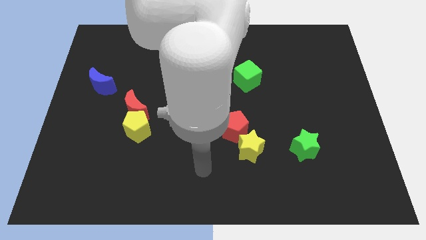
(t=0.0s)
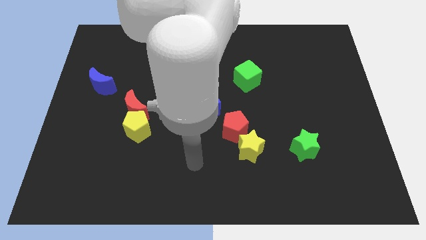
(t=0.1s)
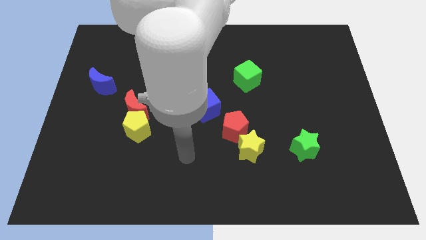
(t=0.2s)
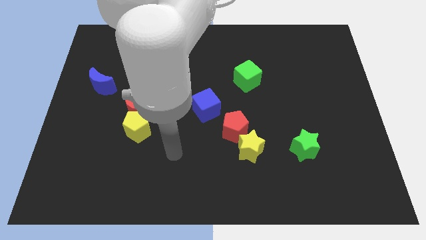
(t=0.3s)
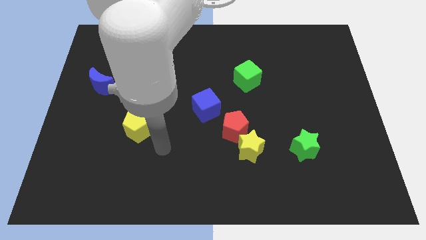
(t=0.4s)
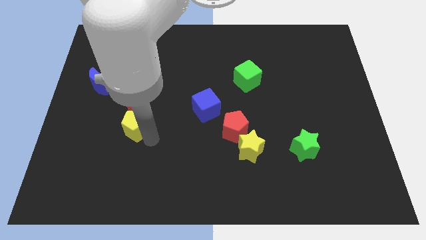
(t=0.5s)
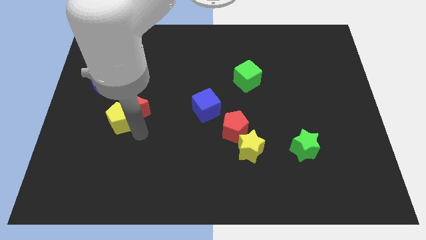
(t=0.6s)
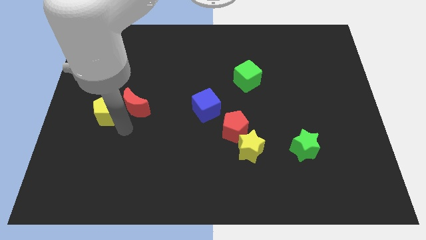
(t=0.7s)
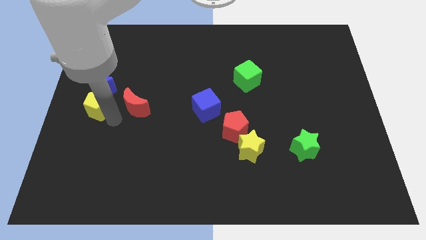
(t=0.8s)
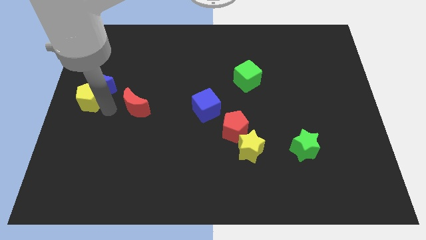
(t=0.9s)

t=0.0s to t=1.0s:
move the red moon away from the yellow pentagon

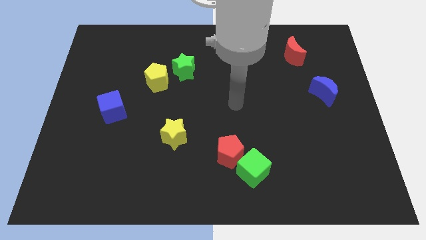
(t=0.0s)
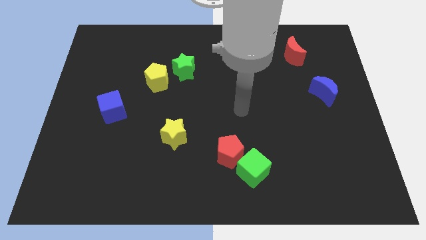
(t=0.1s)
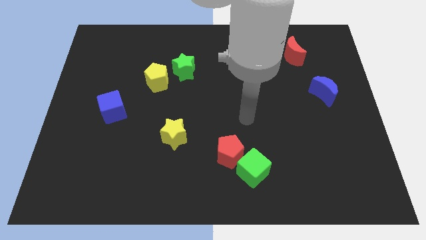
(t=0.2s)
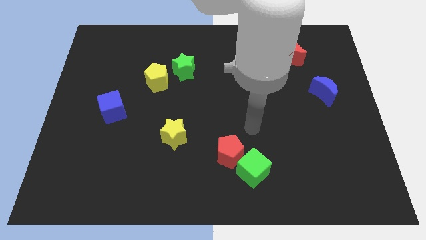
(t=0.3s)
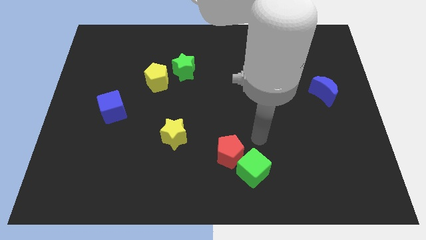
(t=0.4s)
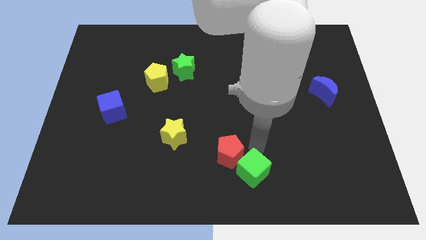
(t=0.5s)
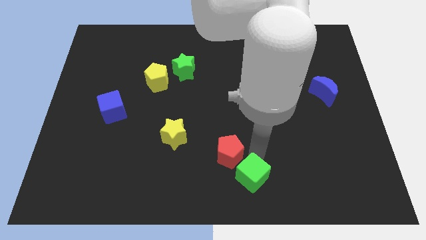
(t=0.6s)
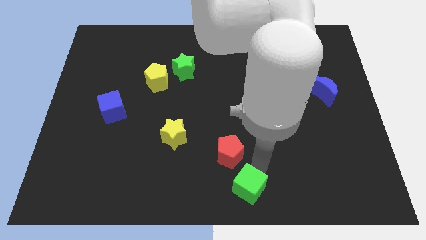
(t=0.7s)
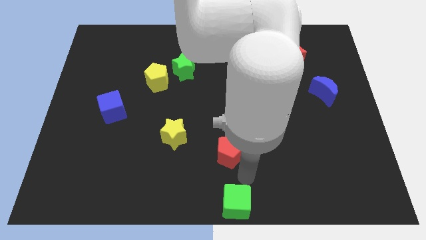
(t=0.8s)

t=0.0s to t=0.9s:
pull the red pentagon apart from the green cube

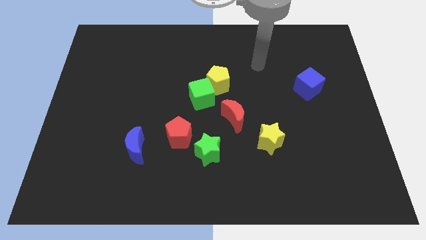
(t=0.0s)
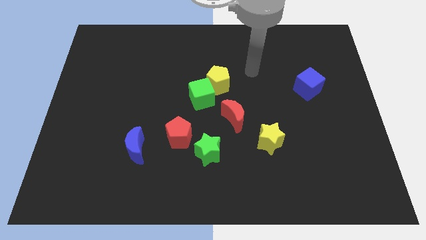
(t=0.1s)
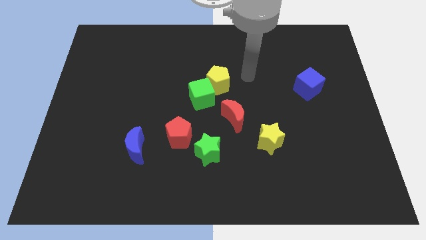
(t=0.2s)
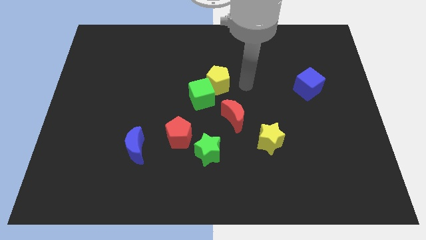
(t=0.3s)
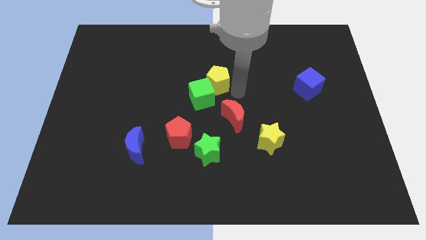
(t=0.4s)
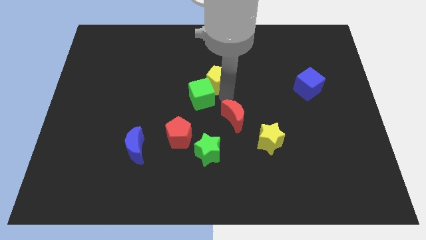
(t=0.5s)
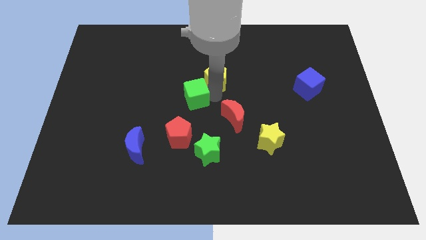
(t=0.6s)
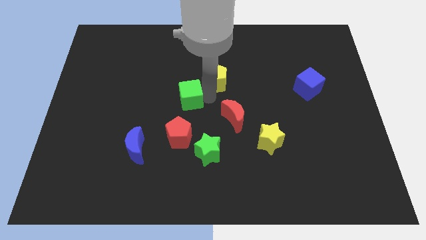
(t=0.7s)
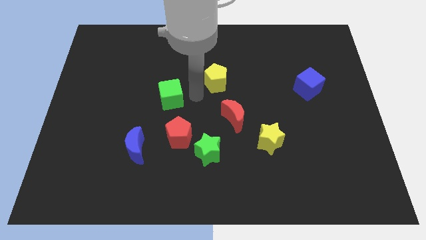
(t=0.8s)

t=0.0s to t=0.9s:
separate the yellow pentagon from the green cube

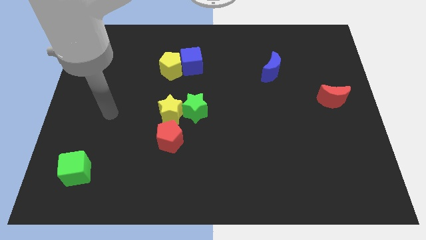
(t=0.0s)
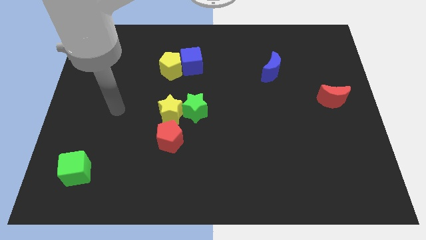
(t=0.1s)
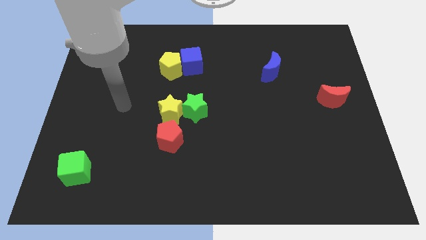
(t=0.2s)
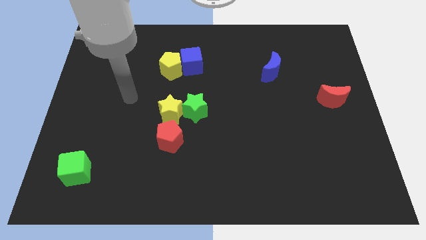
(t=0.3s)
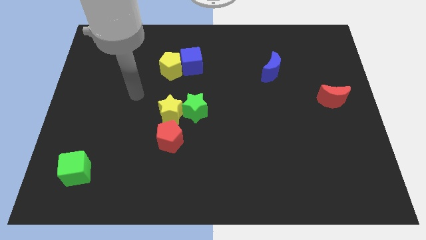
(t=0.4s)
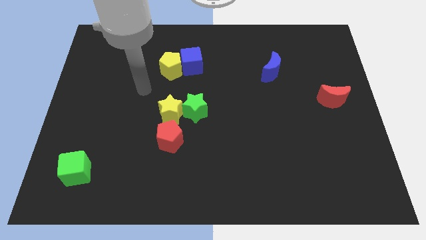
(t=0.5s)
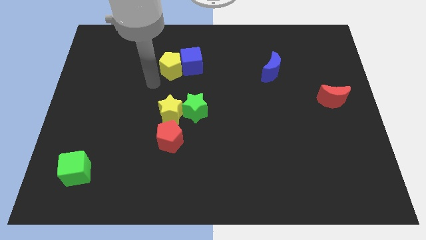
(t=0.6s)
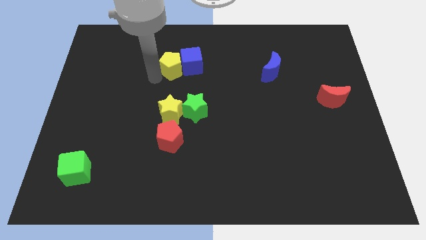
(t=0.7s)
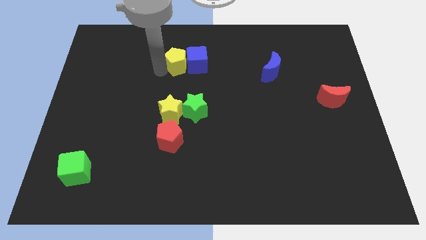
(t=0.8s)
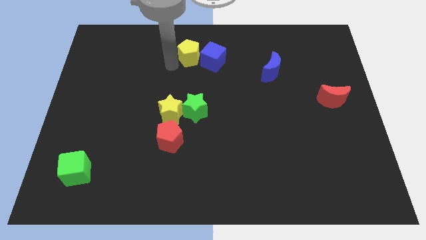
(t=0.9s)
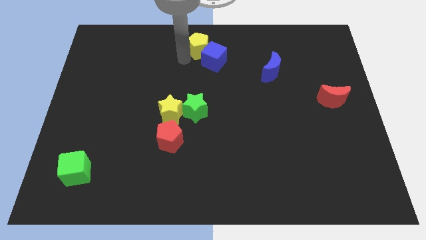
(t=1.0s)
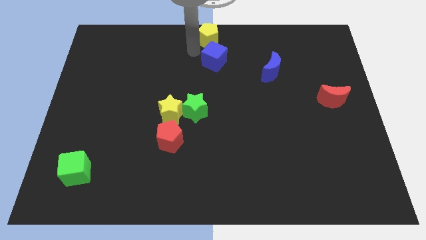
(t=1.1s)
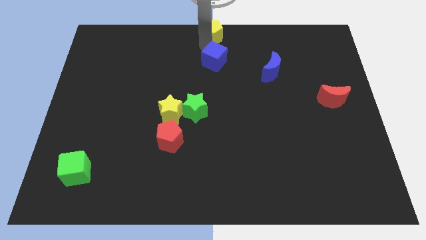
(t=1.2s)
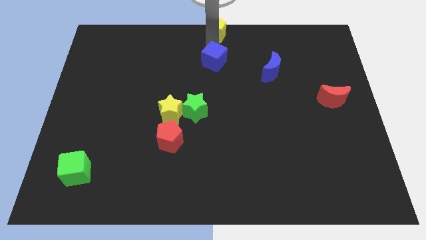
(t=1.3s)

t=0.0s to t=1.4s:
pull the blue cube apart from the yellow pentagon

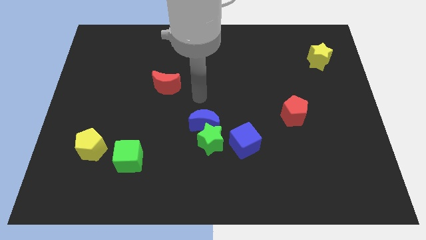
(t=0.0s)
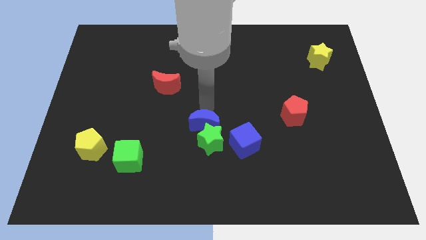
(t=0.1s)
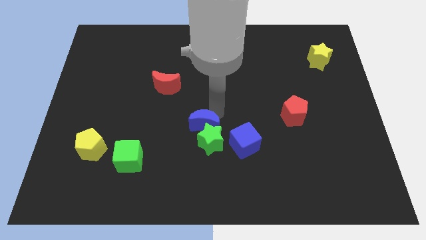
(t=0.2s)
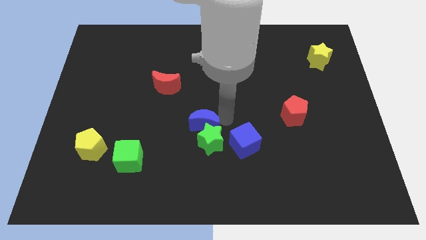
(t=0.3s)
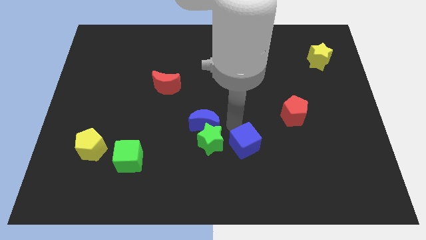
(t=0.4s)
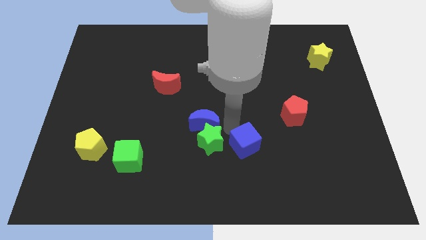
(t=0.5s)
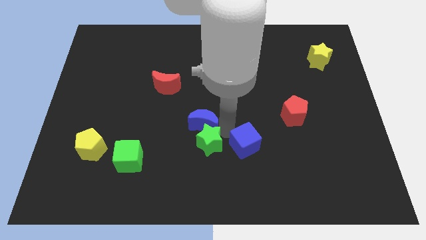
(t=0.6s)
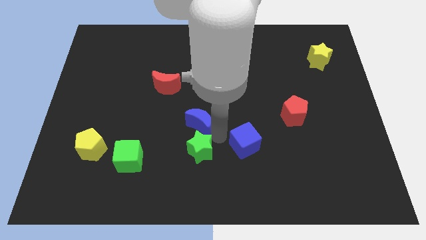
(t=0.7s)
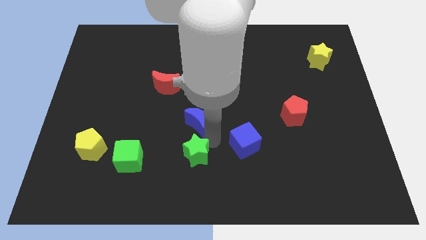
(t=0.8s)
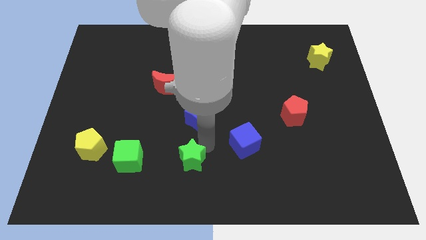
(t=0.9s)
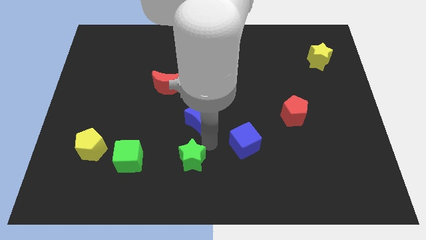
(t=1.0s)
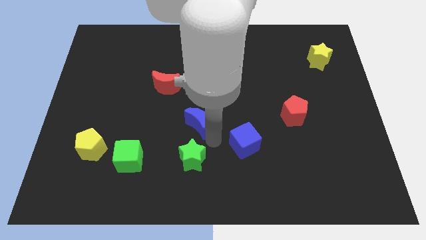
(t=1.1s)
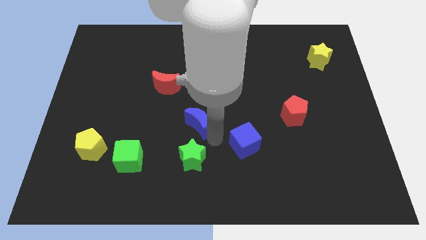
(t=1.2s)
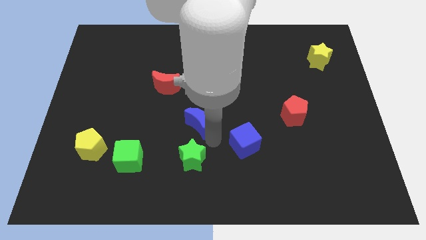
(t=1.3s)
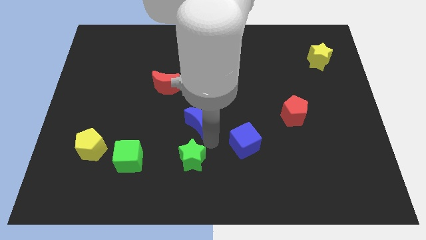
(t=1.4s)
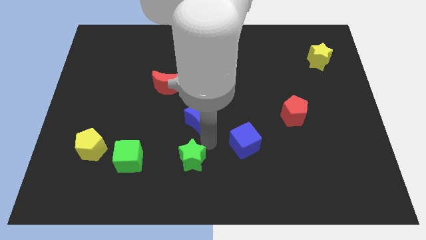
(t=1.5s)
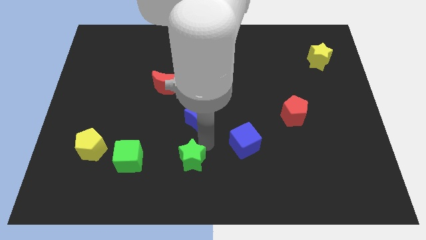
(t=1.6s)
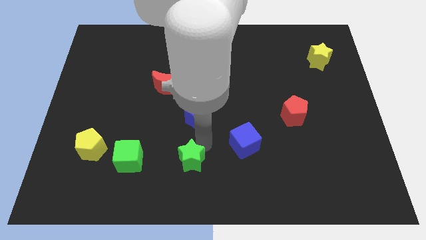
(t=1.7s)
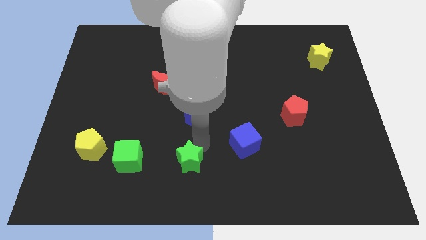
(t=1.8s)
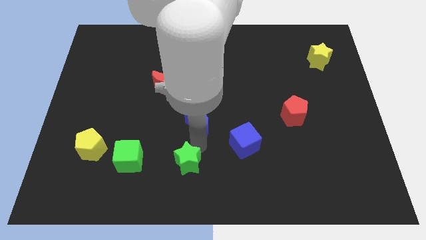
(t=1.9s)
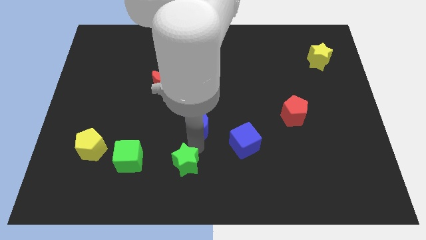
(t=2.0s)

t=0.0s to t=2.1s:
move the green star away from the blue moon and blue cube

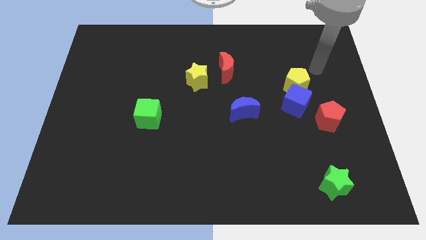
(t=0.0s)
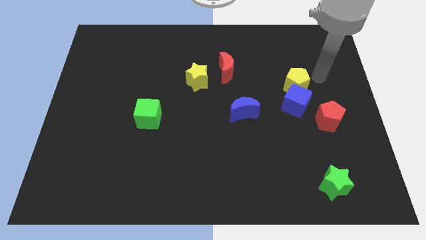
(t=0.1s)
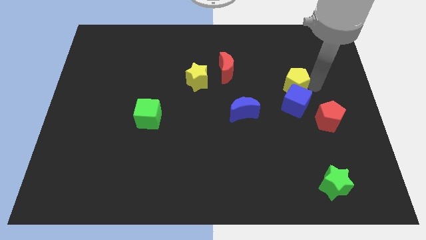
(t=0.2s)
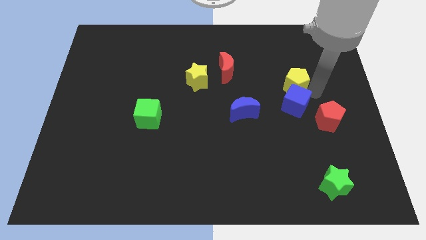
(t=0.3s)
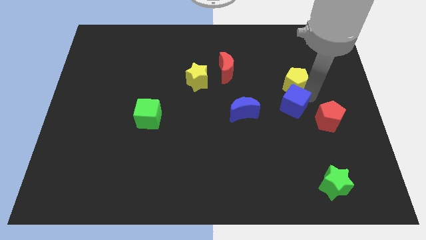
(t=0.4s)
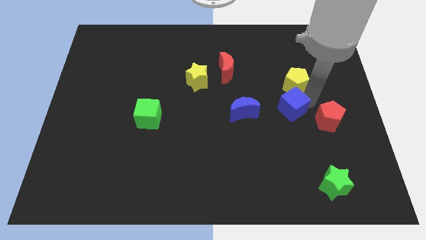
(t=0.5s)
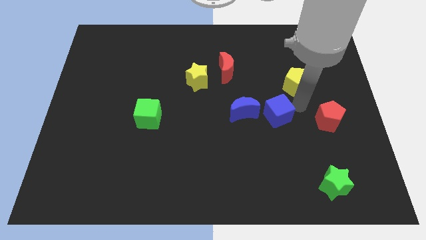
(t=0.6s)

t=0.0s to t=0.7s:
pull the yellow pentagon apart from the blue cube

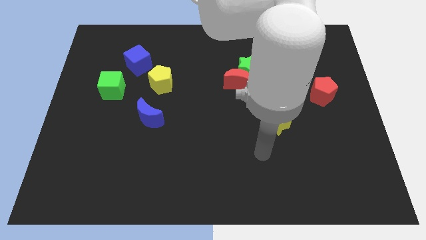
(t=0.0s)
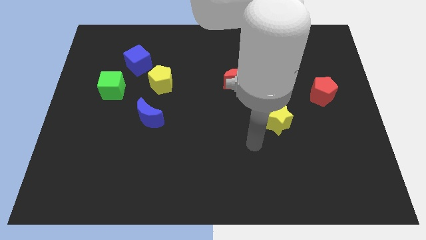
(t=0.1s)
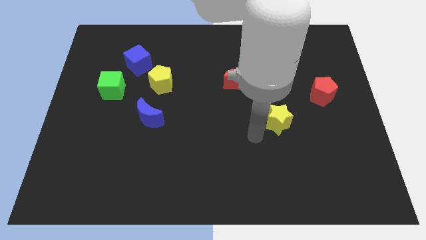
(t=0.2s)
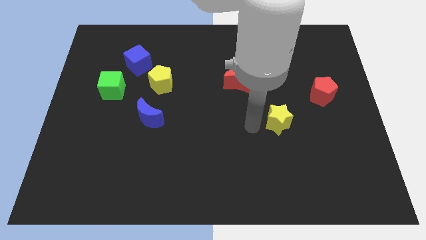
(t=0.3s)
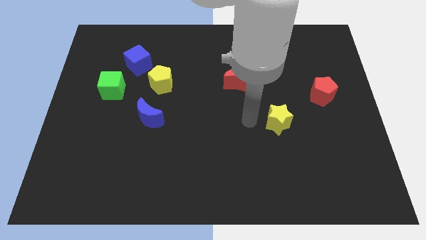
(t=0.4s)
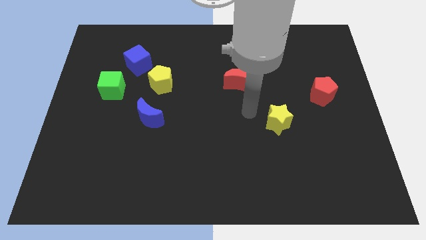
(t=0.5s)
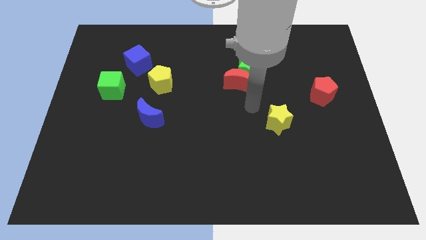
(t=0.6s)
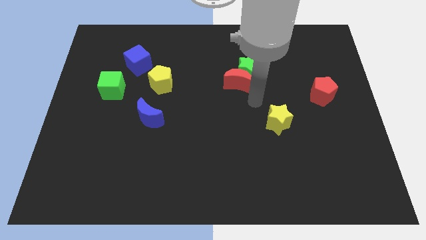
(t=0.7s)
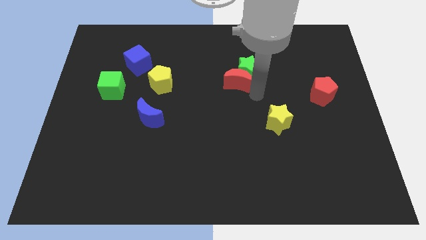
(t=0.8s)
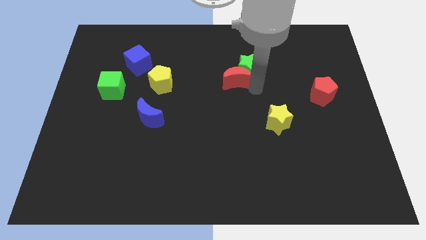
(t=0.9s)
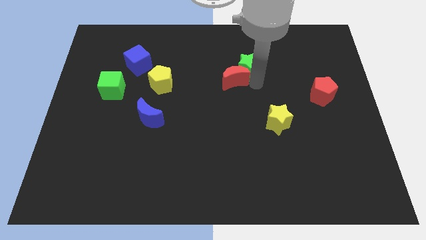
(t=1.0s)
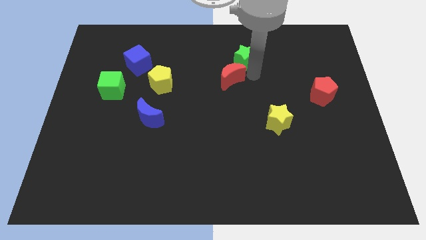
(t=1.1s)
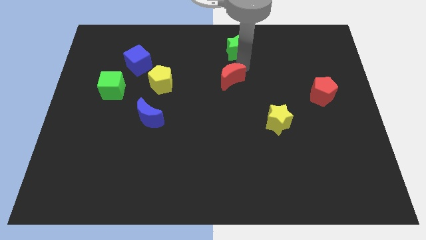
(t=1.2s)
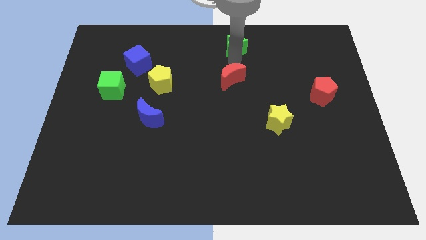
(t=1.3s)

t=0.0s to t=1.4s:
pull the red moon apart from the green star

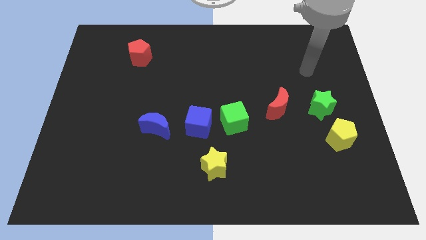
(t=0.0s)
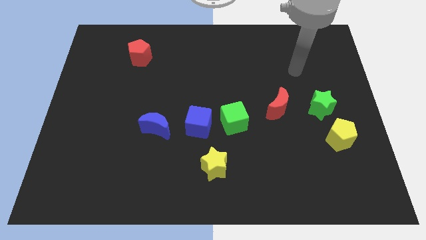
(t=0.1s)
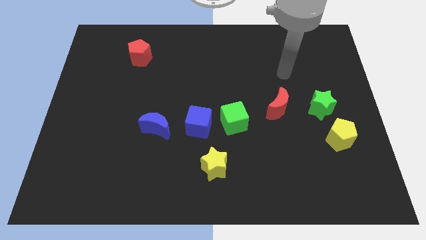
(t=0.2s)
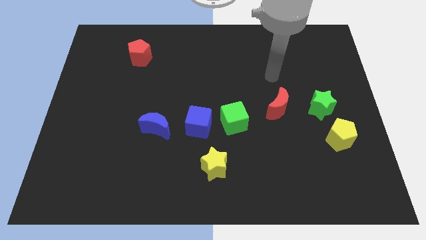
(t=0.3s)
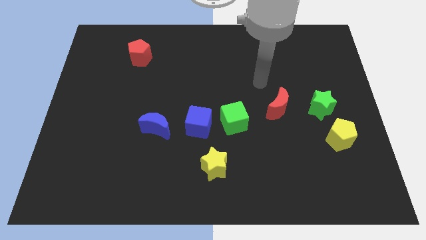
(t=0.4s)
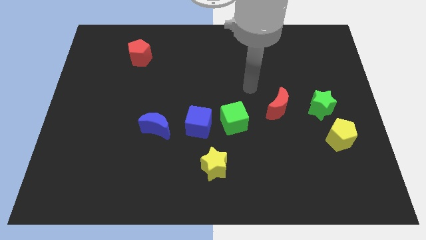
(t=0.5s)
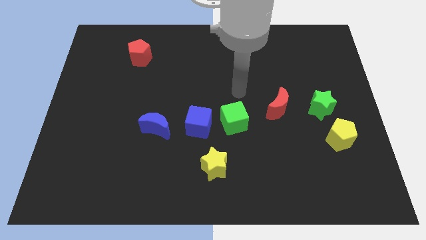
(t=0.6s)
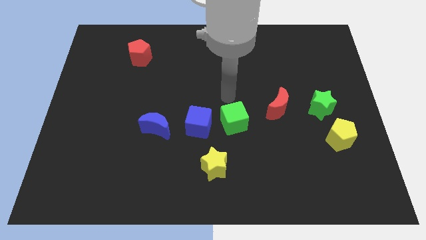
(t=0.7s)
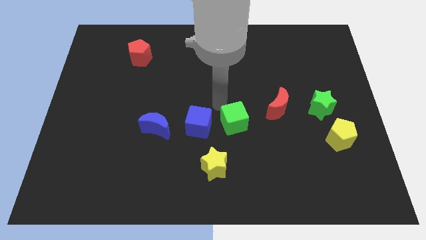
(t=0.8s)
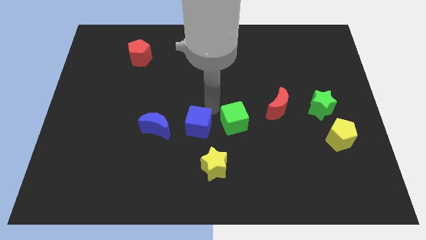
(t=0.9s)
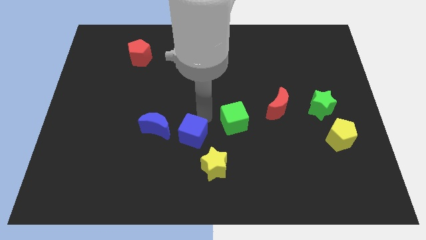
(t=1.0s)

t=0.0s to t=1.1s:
pull the green cube apart from the blue cube
